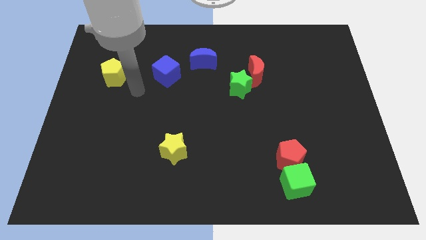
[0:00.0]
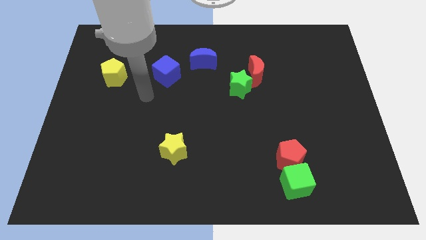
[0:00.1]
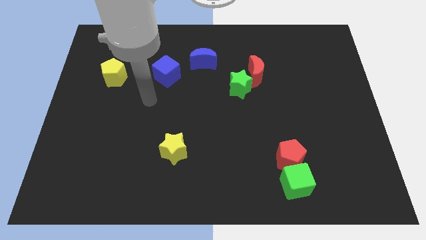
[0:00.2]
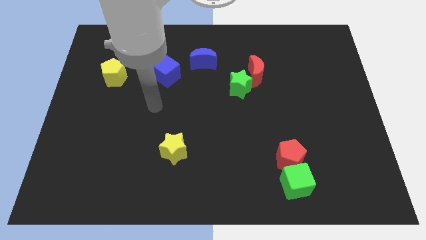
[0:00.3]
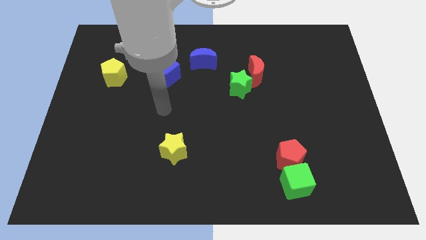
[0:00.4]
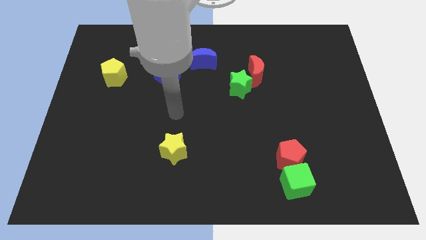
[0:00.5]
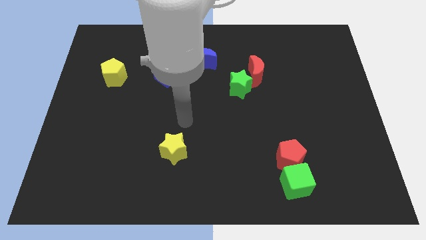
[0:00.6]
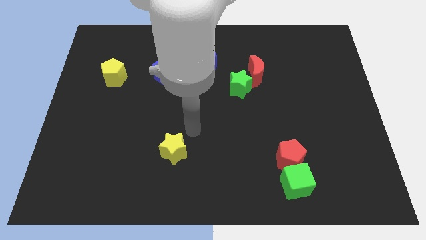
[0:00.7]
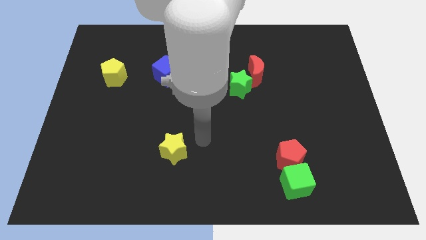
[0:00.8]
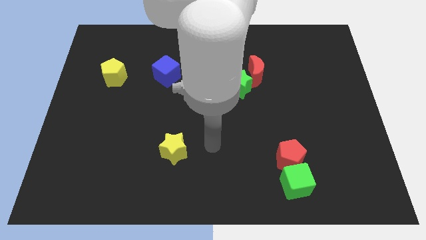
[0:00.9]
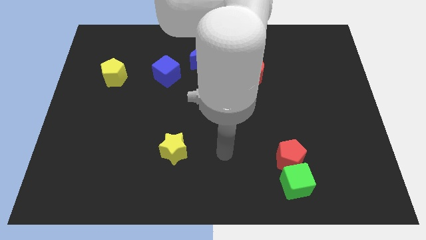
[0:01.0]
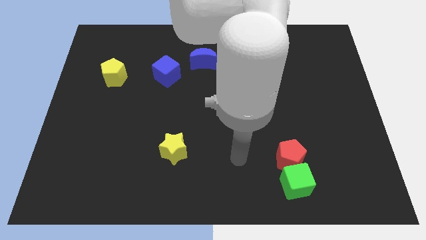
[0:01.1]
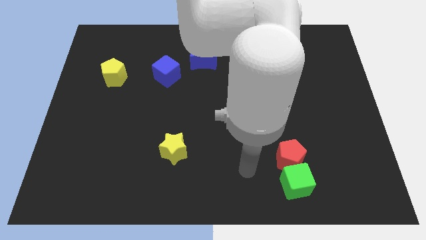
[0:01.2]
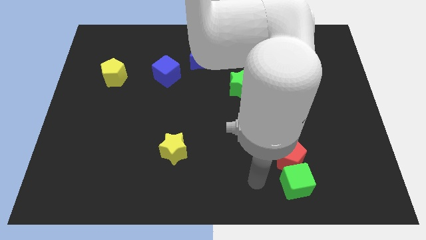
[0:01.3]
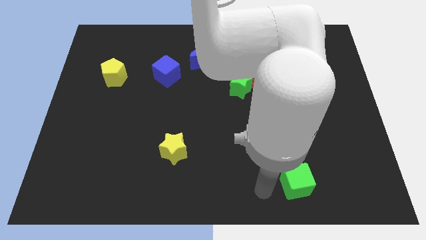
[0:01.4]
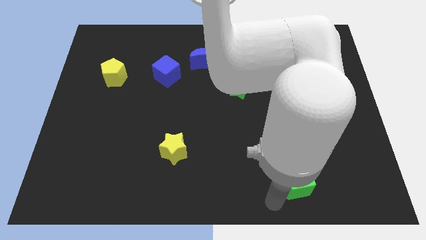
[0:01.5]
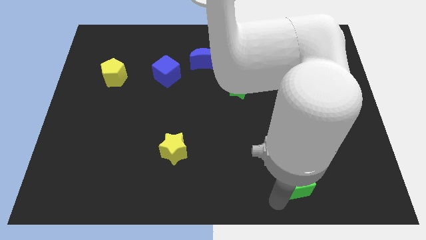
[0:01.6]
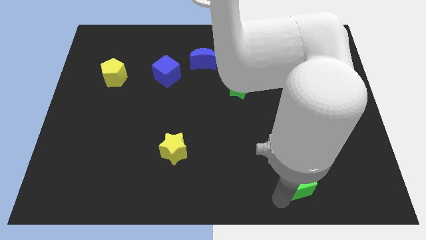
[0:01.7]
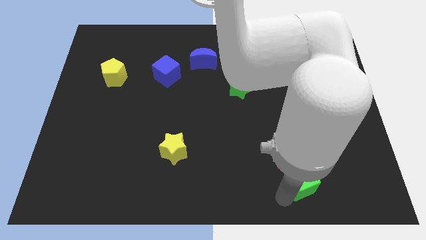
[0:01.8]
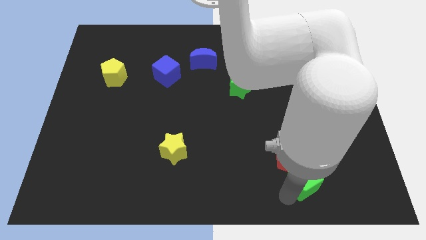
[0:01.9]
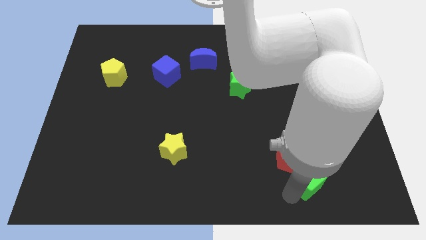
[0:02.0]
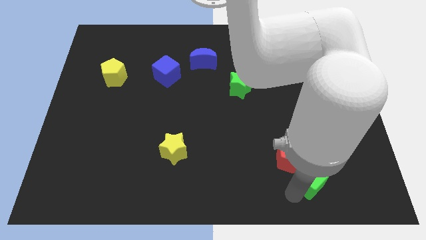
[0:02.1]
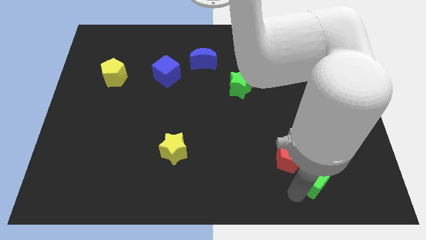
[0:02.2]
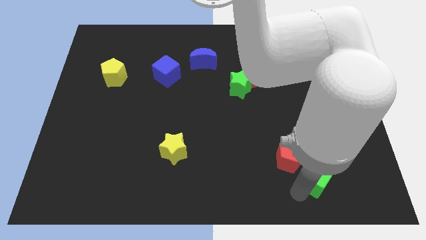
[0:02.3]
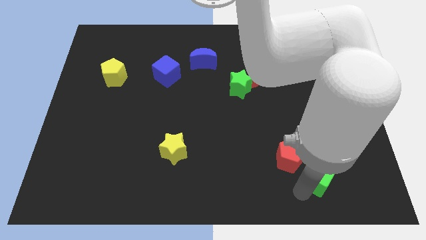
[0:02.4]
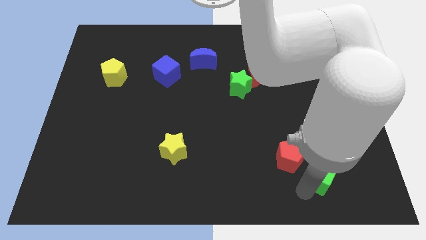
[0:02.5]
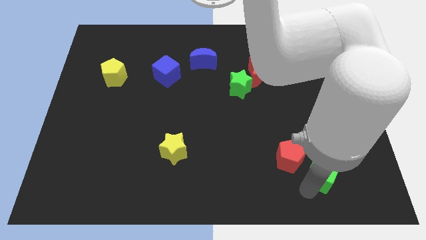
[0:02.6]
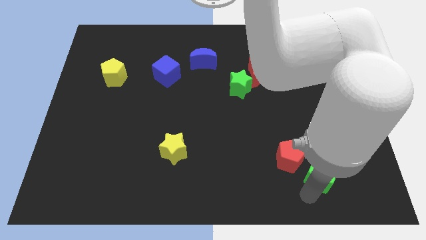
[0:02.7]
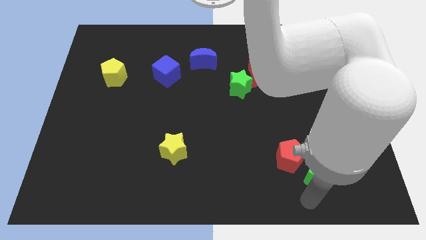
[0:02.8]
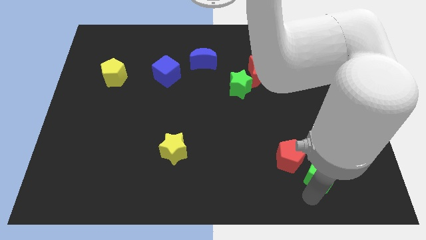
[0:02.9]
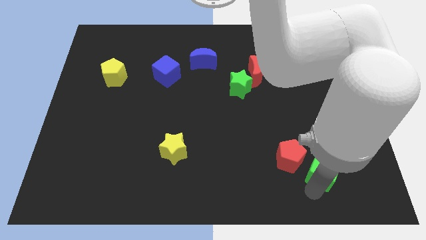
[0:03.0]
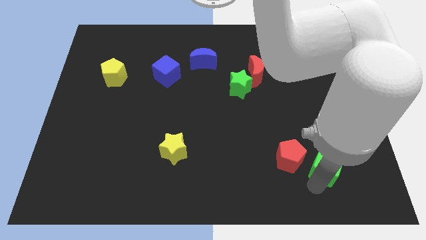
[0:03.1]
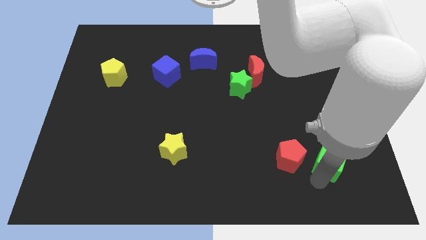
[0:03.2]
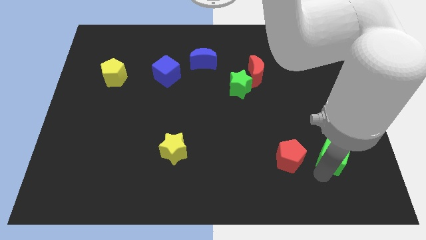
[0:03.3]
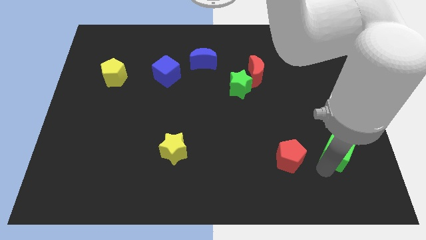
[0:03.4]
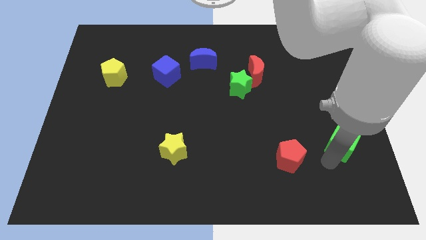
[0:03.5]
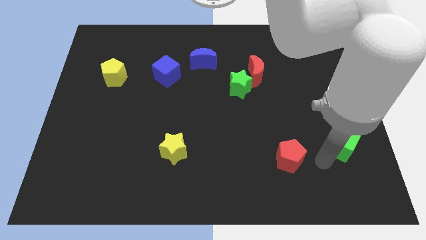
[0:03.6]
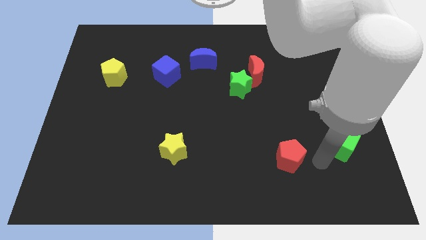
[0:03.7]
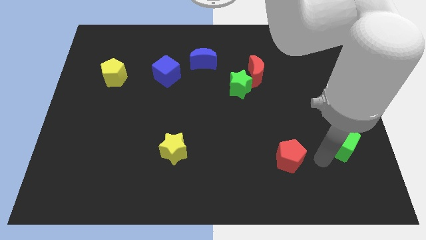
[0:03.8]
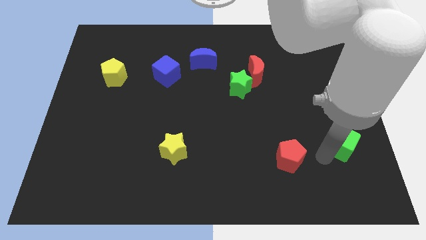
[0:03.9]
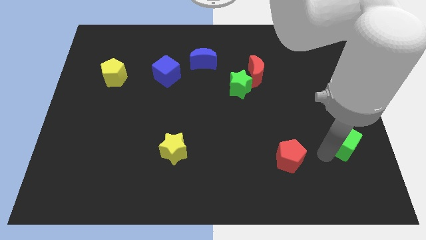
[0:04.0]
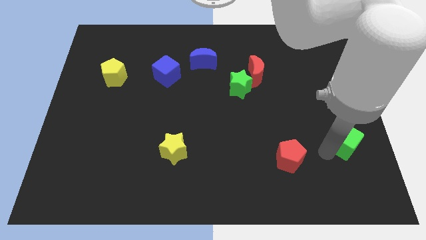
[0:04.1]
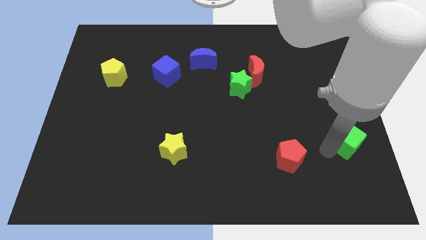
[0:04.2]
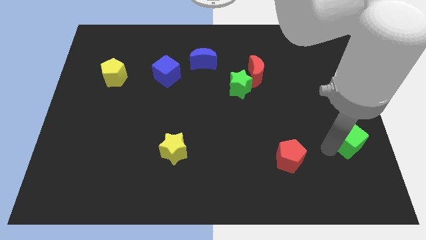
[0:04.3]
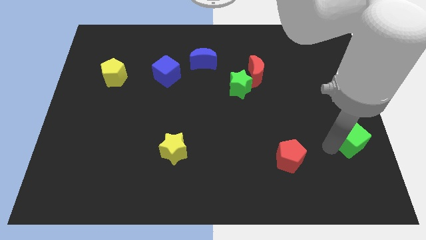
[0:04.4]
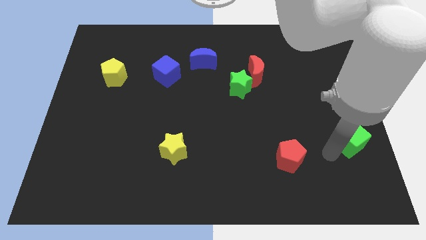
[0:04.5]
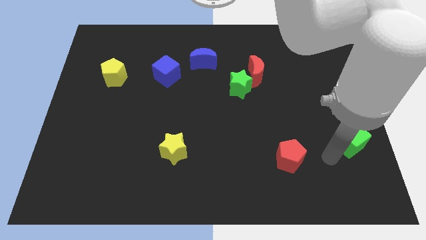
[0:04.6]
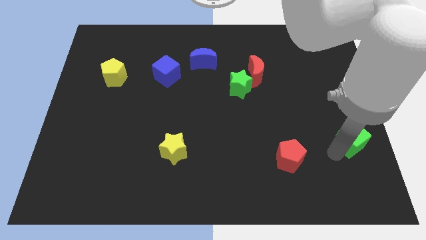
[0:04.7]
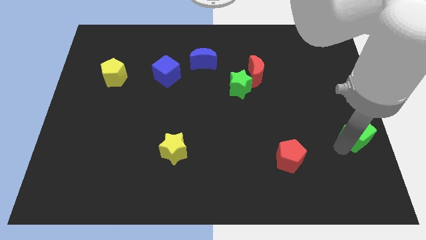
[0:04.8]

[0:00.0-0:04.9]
put the green cube to the right side

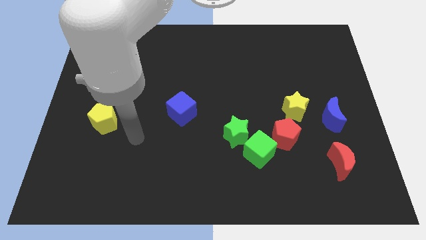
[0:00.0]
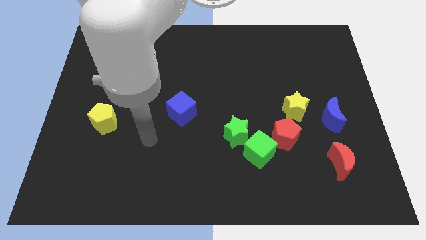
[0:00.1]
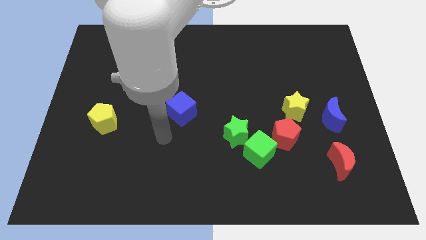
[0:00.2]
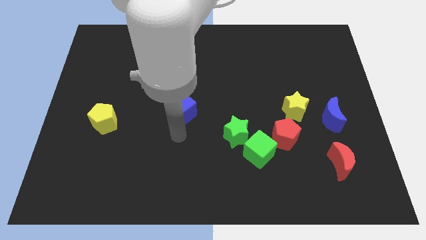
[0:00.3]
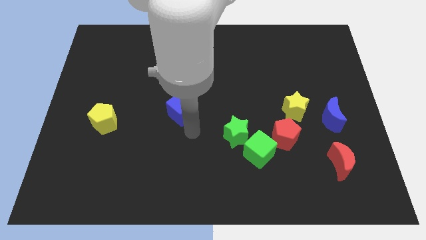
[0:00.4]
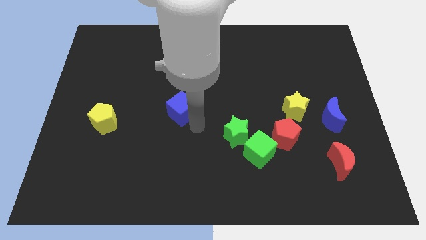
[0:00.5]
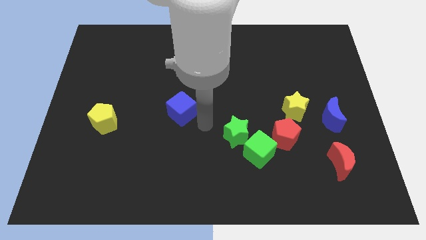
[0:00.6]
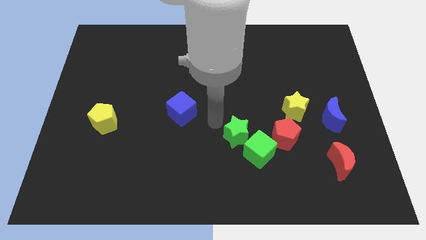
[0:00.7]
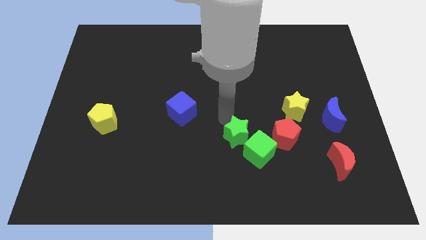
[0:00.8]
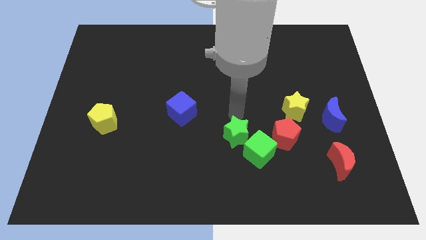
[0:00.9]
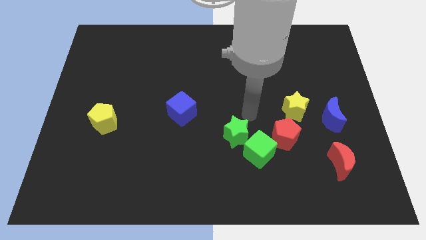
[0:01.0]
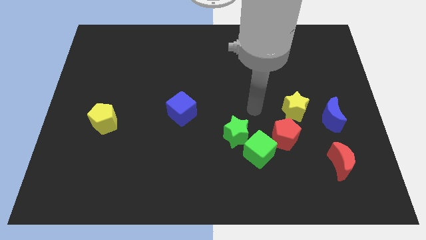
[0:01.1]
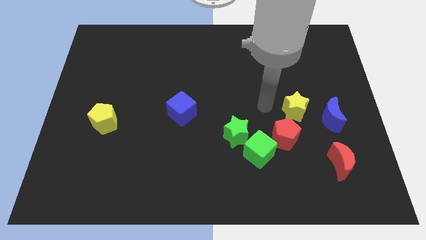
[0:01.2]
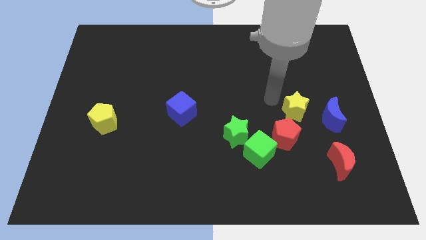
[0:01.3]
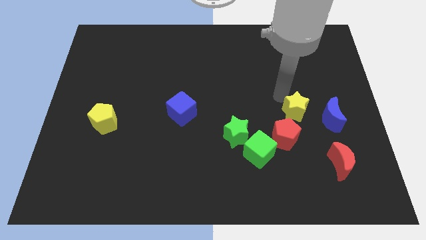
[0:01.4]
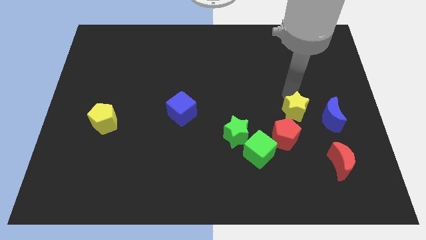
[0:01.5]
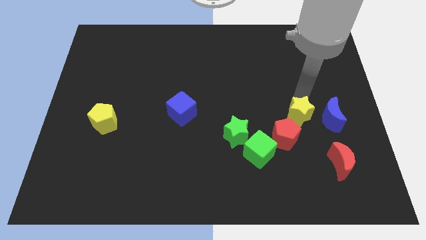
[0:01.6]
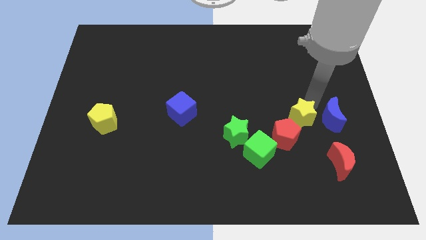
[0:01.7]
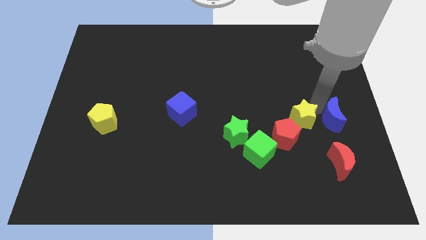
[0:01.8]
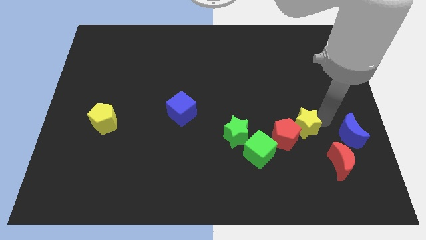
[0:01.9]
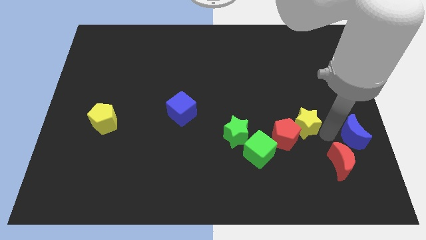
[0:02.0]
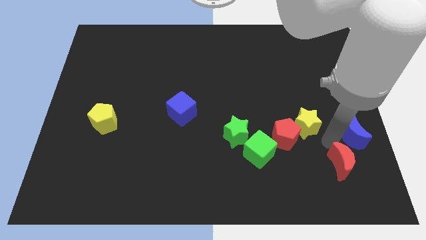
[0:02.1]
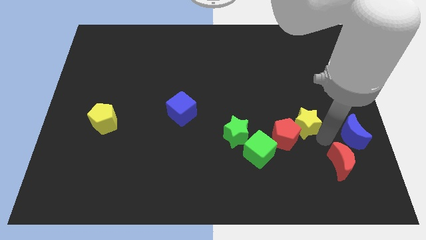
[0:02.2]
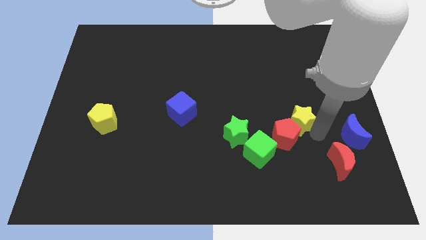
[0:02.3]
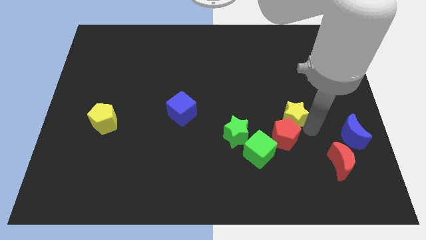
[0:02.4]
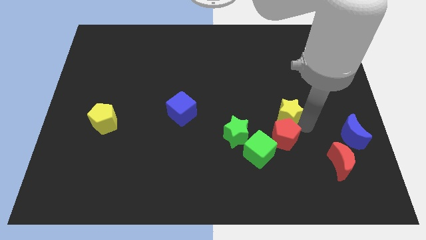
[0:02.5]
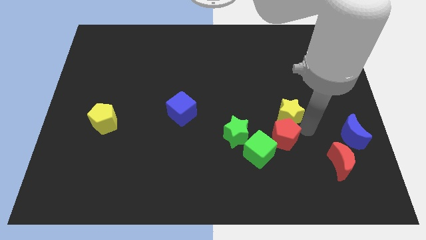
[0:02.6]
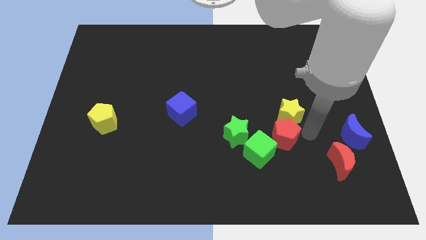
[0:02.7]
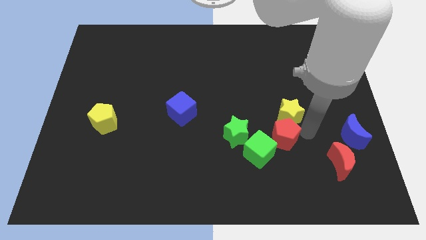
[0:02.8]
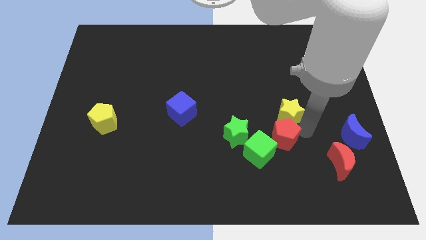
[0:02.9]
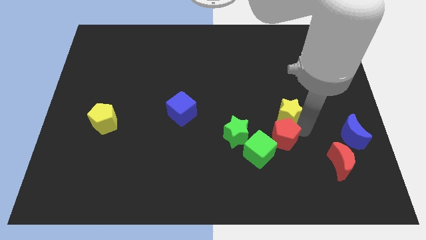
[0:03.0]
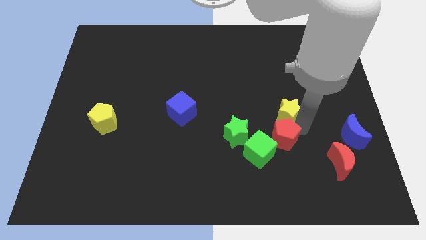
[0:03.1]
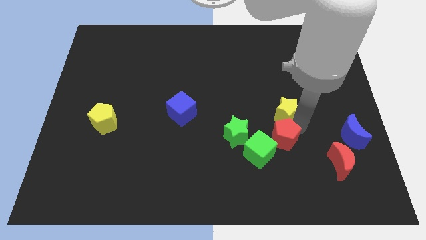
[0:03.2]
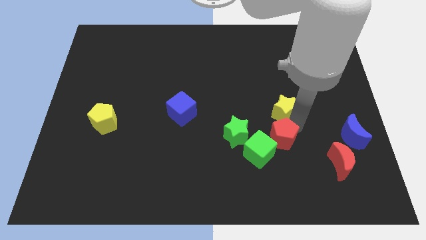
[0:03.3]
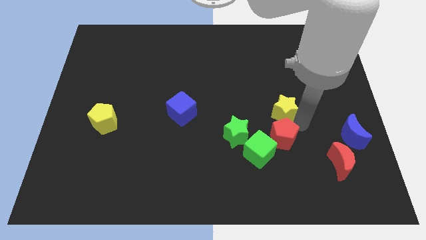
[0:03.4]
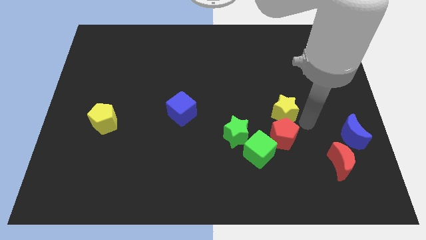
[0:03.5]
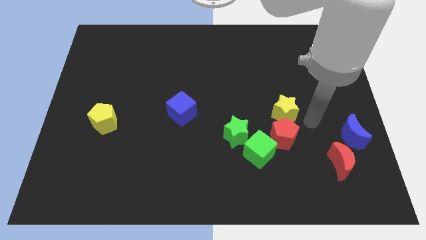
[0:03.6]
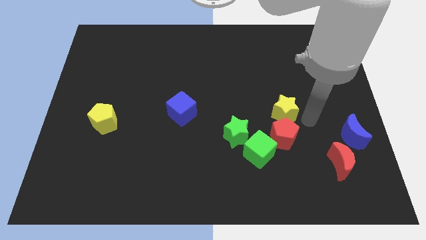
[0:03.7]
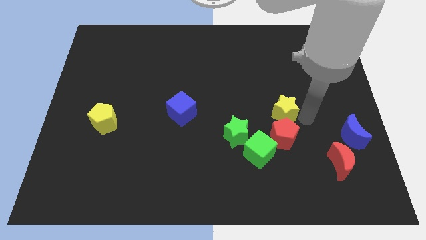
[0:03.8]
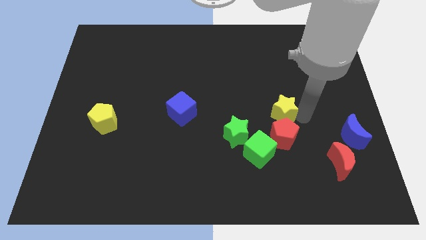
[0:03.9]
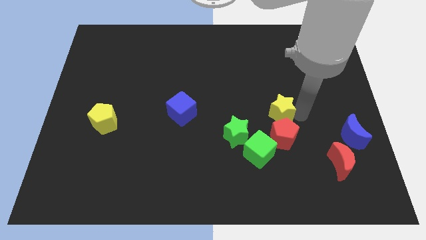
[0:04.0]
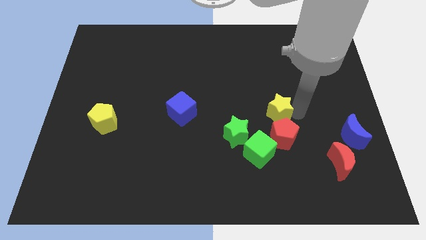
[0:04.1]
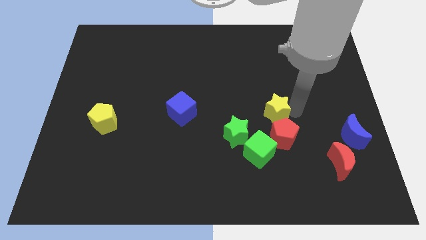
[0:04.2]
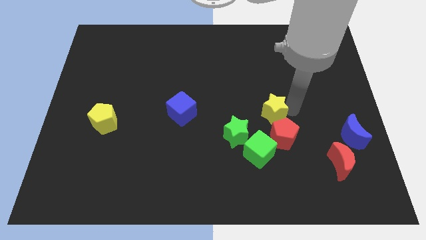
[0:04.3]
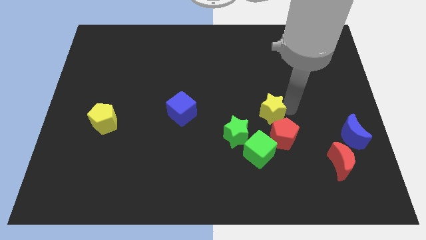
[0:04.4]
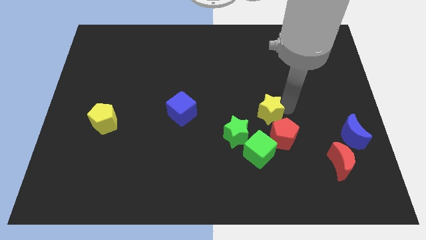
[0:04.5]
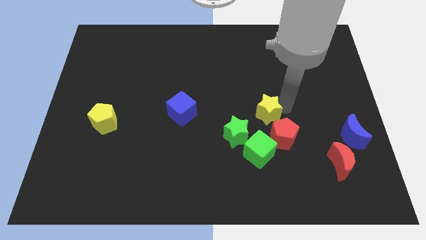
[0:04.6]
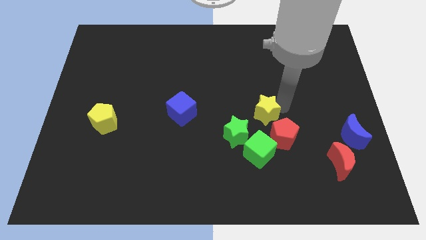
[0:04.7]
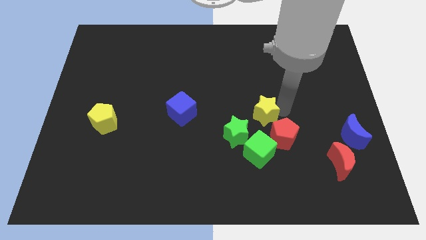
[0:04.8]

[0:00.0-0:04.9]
push the yellow star to the center
